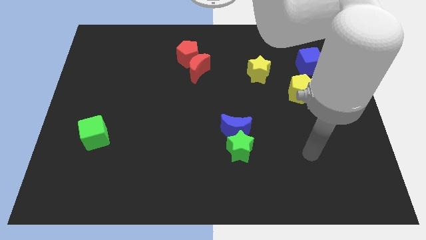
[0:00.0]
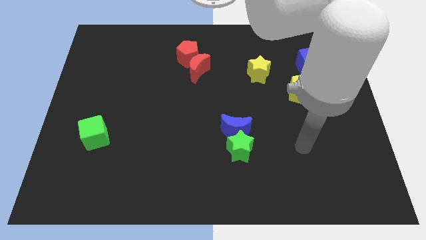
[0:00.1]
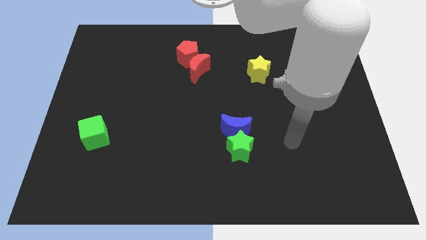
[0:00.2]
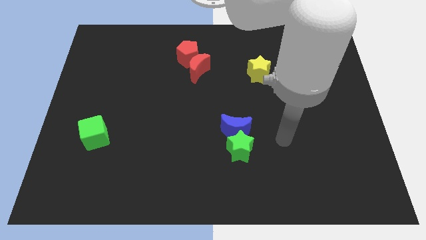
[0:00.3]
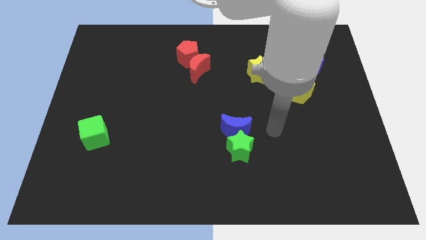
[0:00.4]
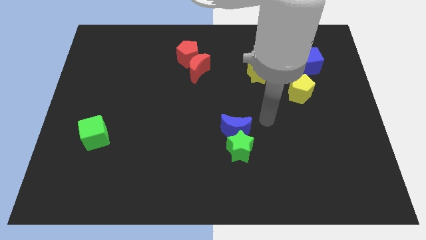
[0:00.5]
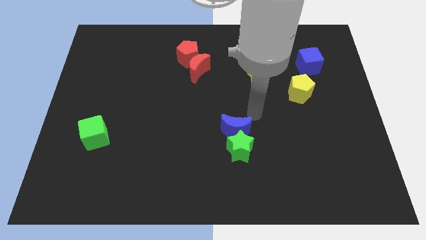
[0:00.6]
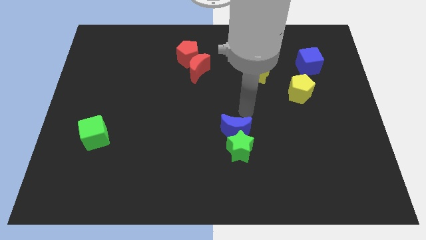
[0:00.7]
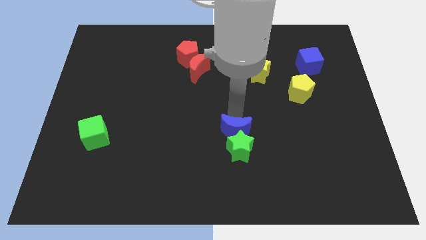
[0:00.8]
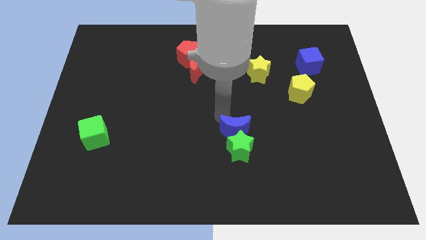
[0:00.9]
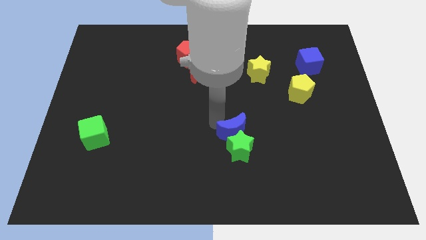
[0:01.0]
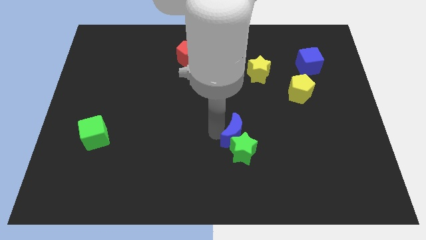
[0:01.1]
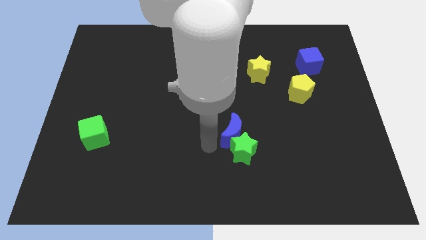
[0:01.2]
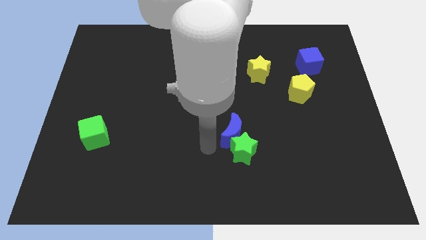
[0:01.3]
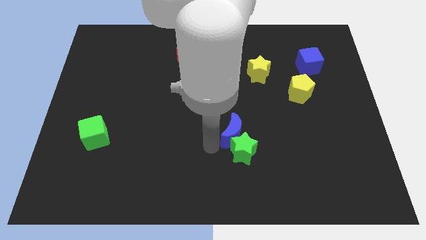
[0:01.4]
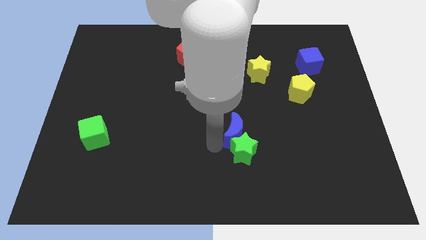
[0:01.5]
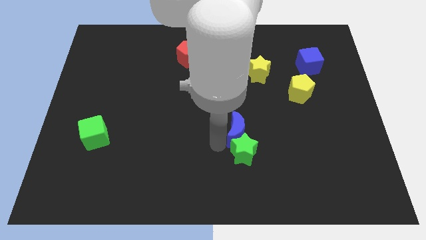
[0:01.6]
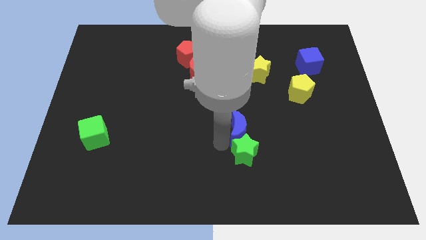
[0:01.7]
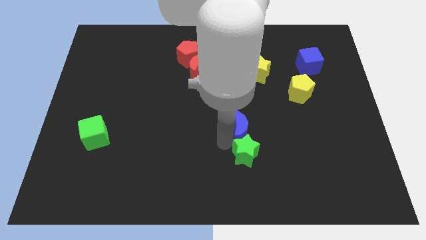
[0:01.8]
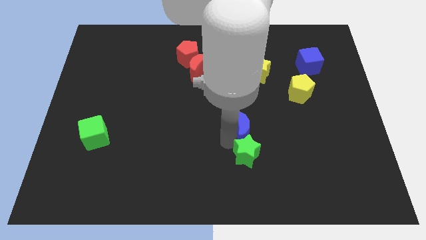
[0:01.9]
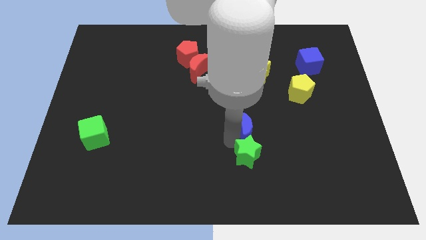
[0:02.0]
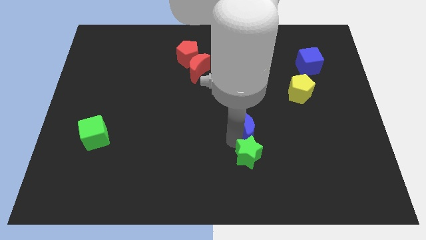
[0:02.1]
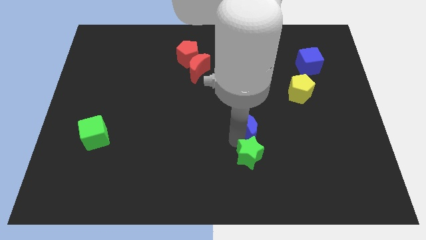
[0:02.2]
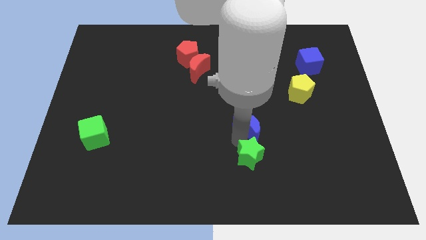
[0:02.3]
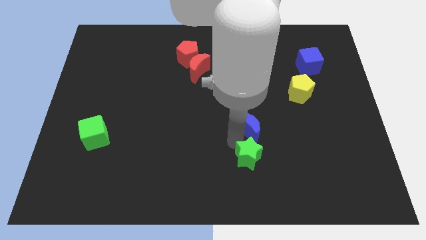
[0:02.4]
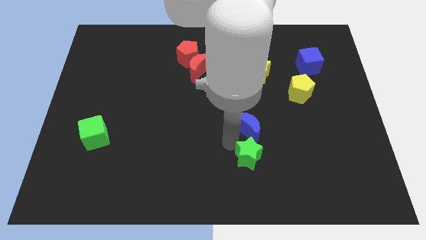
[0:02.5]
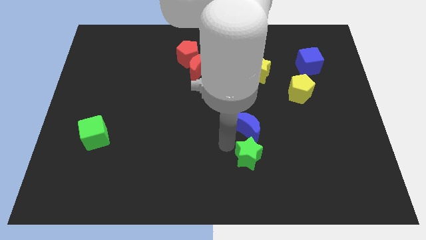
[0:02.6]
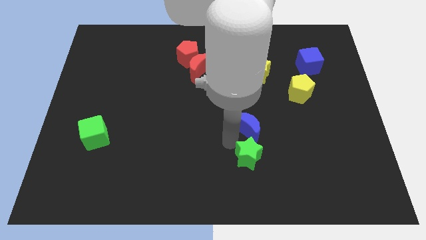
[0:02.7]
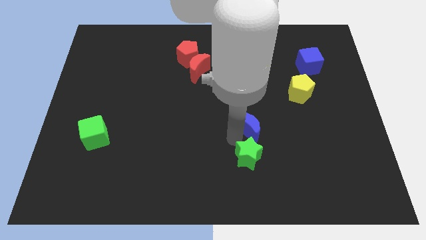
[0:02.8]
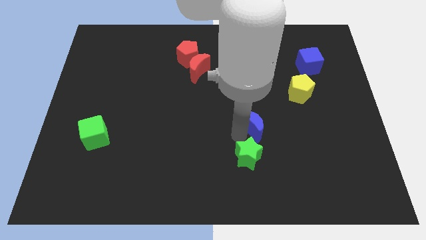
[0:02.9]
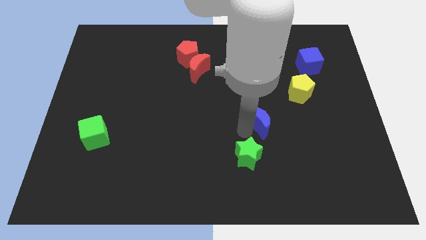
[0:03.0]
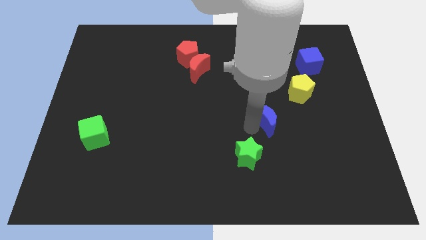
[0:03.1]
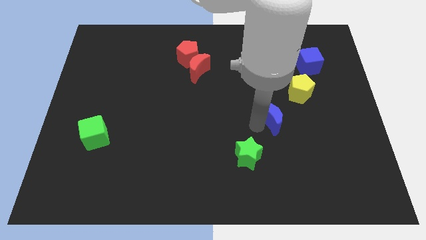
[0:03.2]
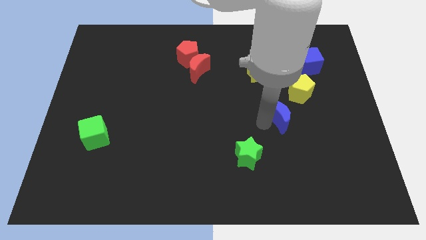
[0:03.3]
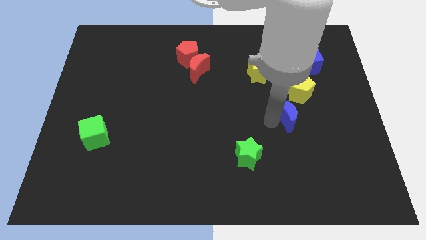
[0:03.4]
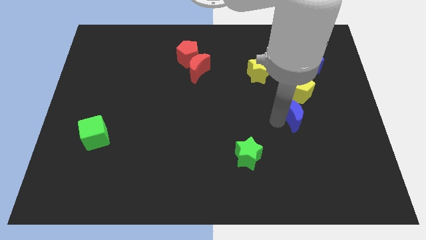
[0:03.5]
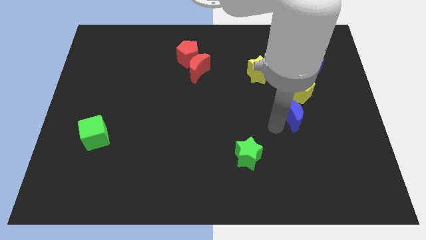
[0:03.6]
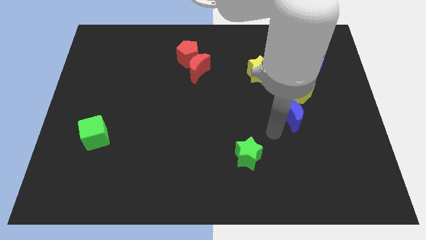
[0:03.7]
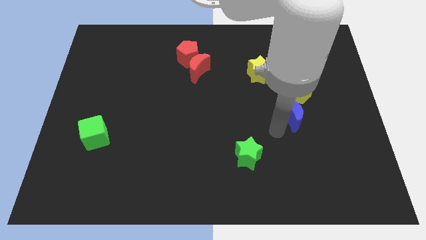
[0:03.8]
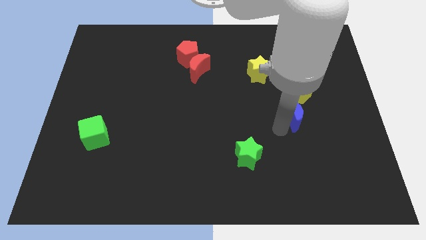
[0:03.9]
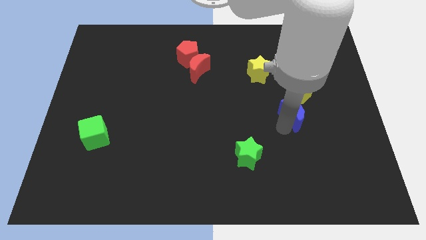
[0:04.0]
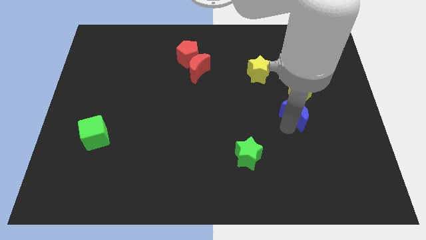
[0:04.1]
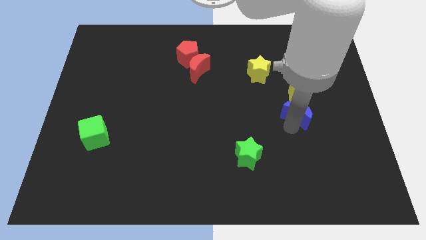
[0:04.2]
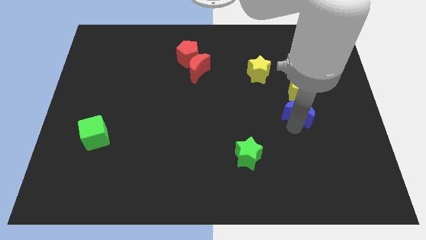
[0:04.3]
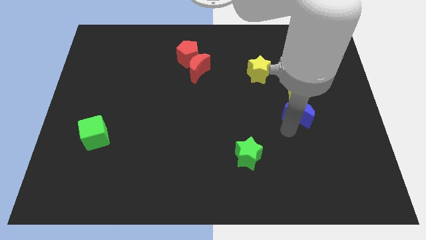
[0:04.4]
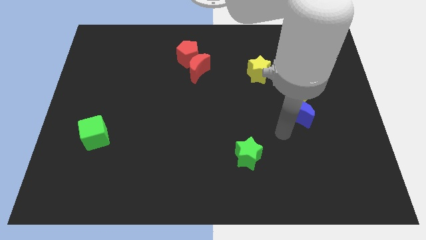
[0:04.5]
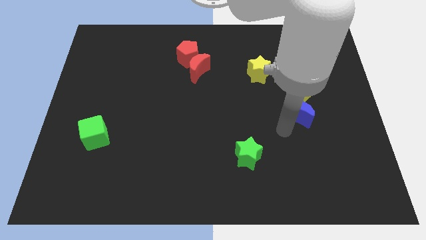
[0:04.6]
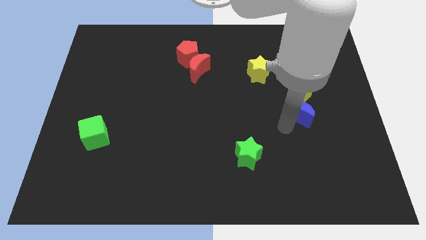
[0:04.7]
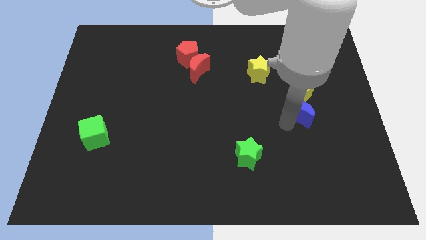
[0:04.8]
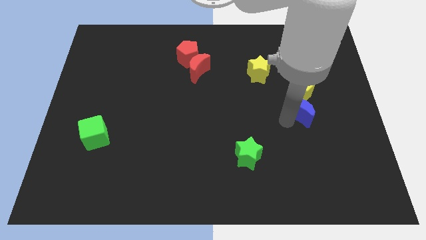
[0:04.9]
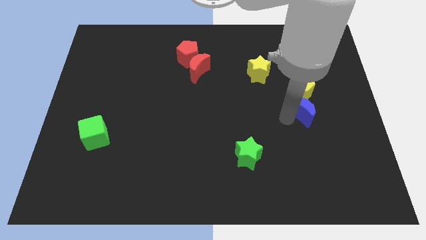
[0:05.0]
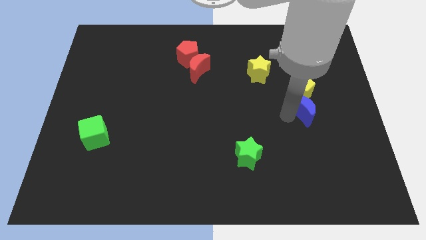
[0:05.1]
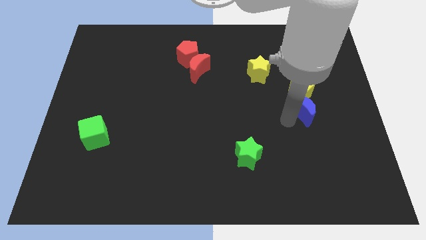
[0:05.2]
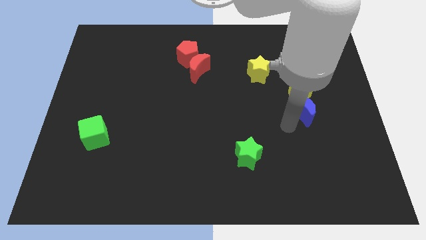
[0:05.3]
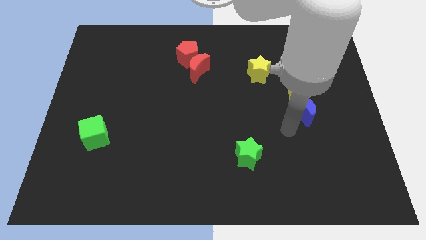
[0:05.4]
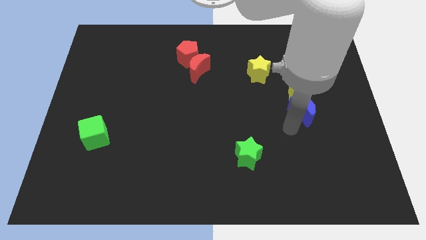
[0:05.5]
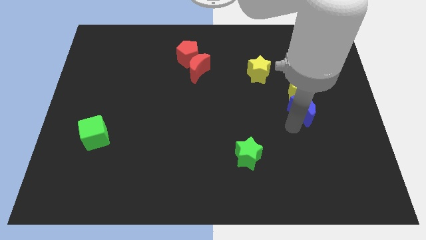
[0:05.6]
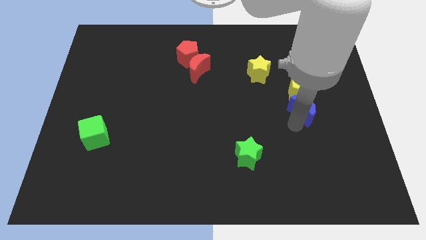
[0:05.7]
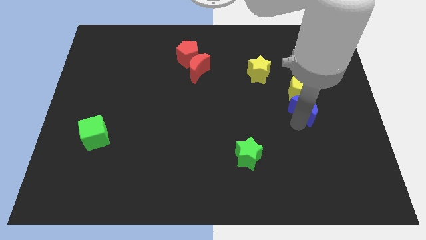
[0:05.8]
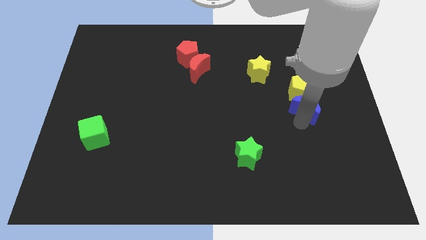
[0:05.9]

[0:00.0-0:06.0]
slide the blue moon below the blue cube

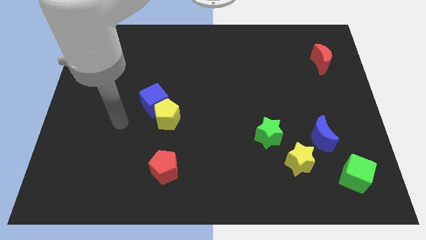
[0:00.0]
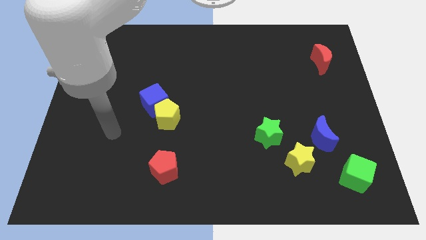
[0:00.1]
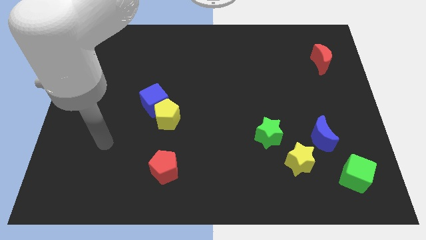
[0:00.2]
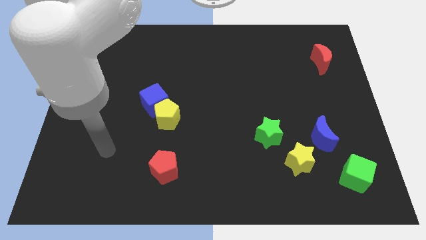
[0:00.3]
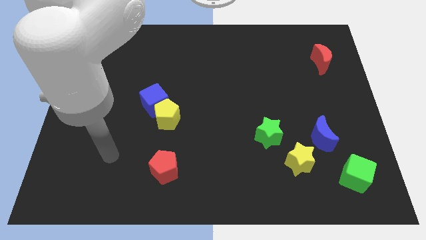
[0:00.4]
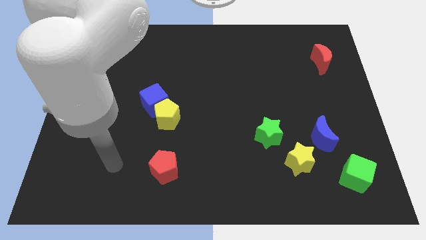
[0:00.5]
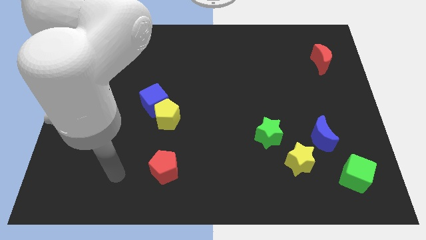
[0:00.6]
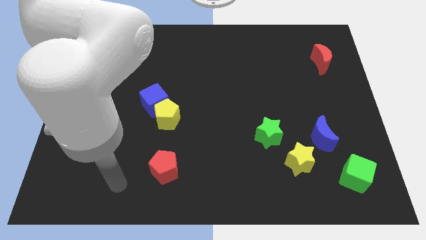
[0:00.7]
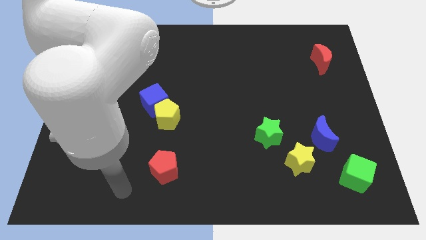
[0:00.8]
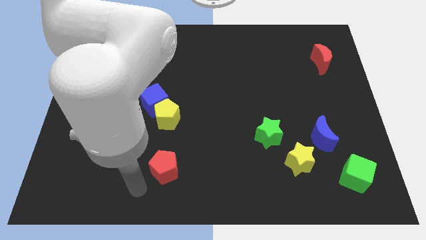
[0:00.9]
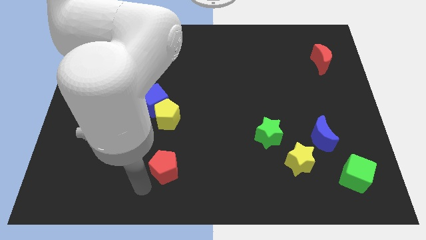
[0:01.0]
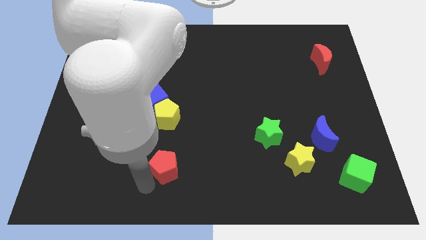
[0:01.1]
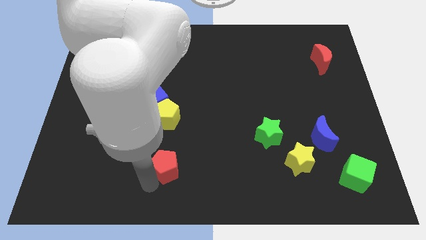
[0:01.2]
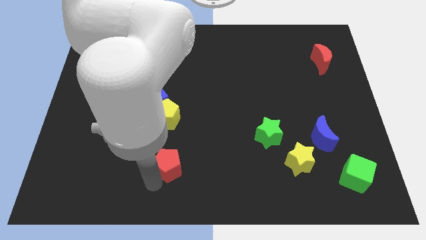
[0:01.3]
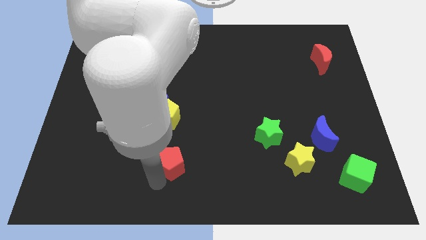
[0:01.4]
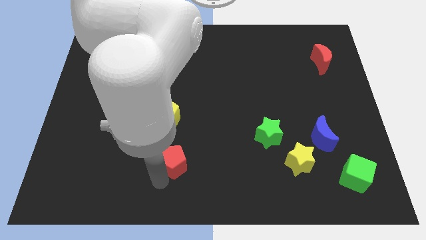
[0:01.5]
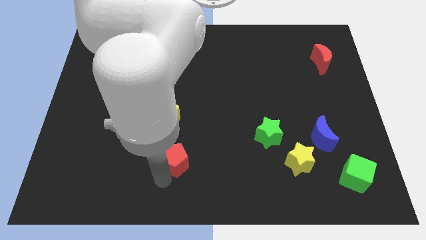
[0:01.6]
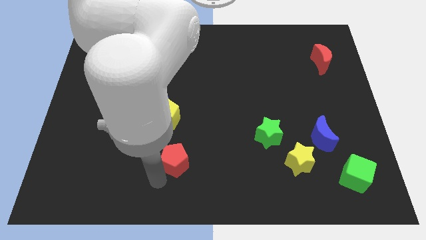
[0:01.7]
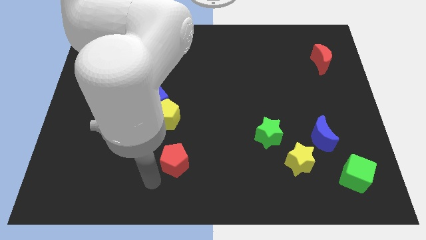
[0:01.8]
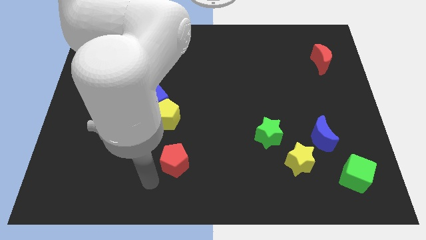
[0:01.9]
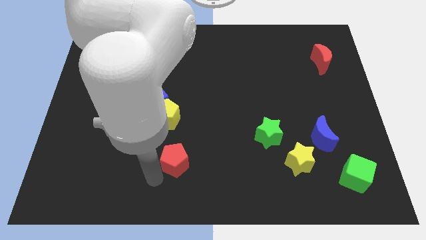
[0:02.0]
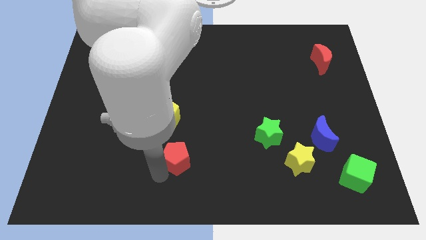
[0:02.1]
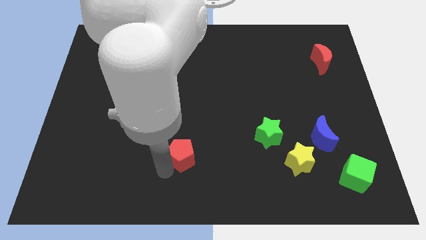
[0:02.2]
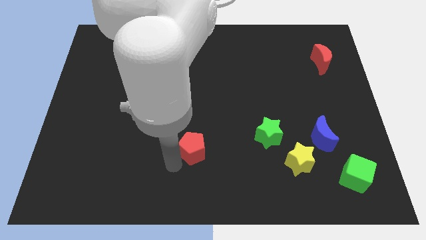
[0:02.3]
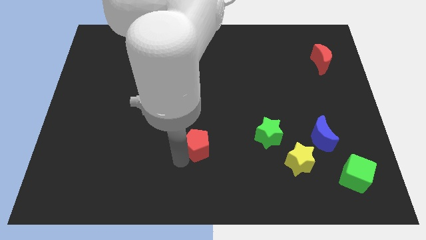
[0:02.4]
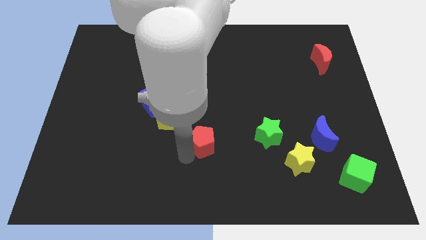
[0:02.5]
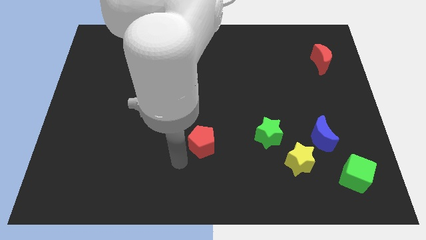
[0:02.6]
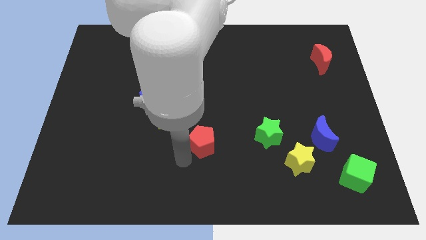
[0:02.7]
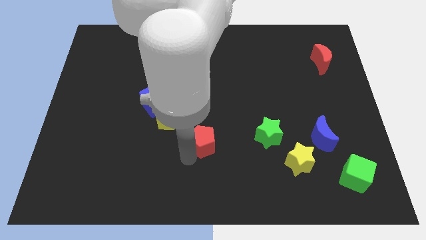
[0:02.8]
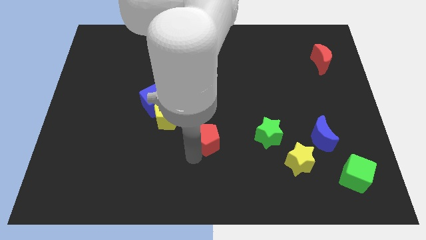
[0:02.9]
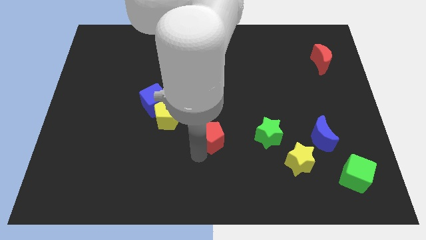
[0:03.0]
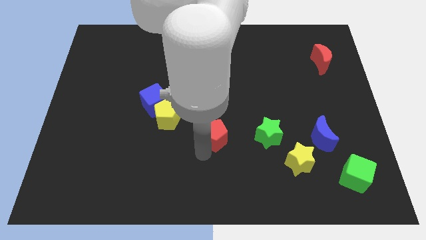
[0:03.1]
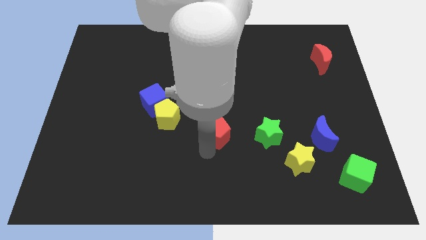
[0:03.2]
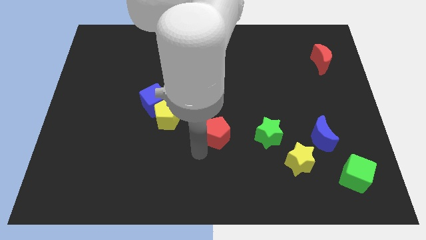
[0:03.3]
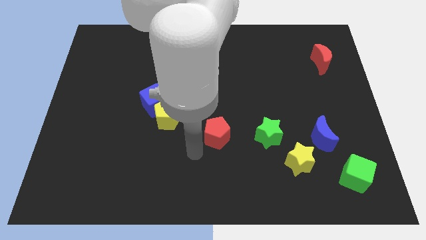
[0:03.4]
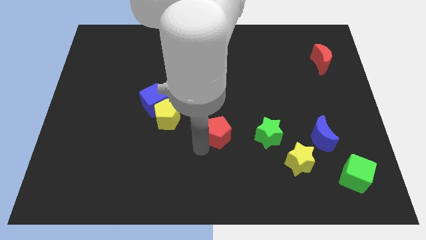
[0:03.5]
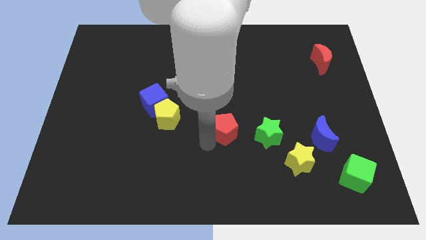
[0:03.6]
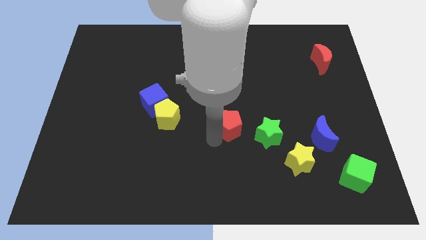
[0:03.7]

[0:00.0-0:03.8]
push the red pentagon diagonally up and to the left of the green star
